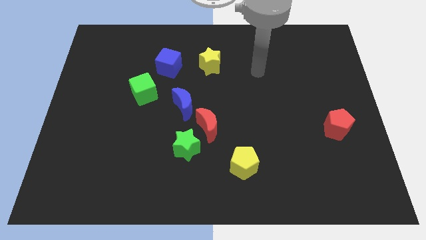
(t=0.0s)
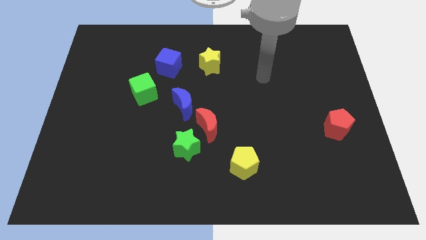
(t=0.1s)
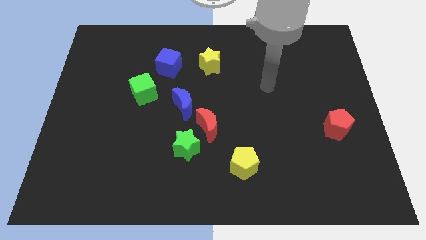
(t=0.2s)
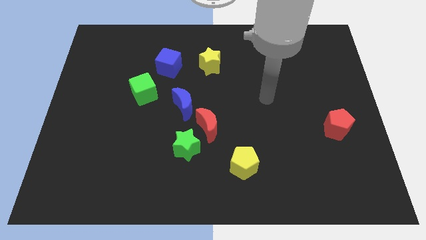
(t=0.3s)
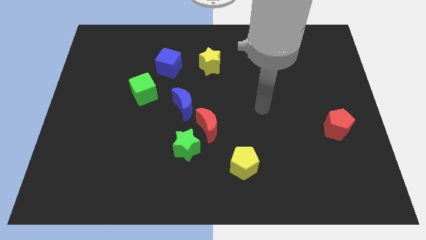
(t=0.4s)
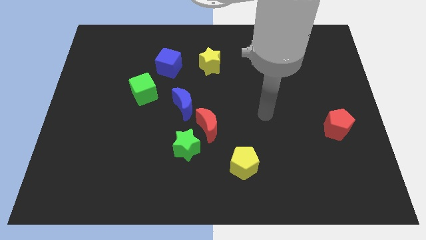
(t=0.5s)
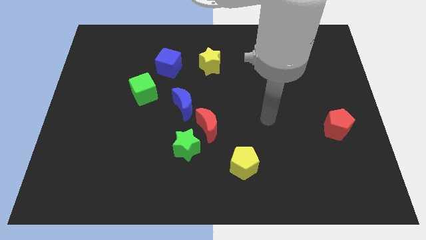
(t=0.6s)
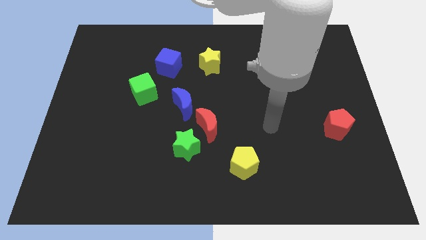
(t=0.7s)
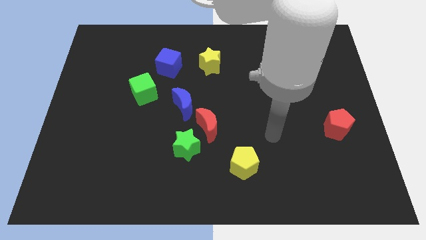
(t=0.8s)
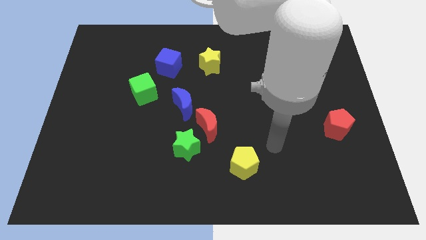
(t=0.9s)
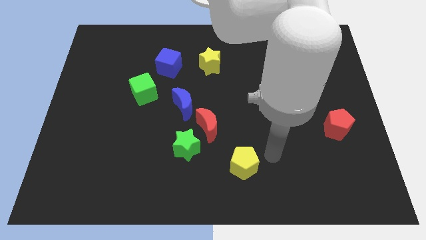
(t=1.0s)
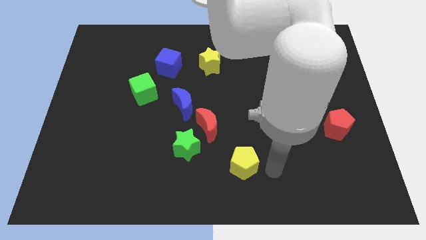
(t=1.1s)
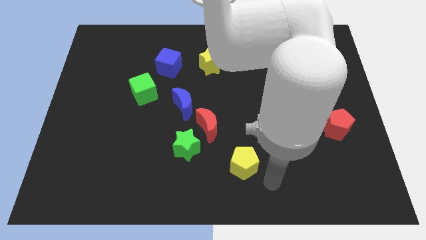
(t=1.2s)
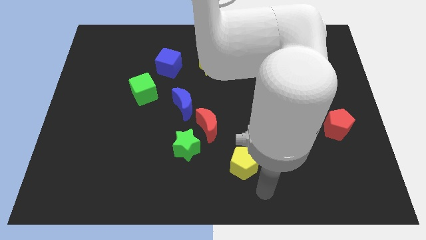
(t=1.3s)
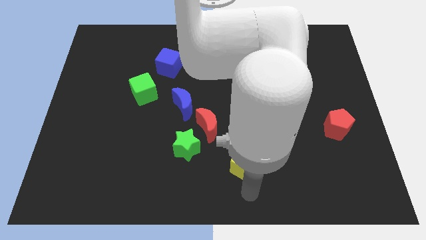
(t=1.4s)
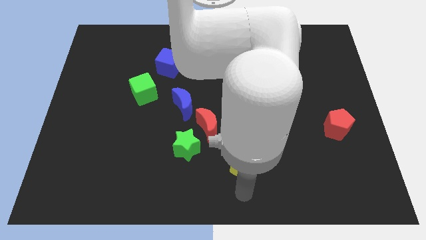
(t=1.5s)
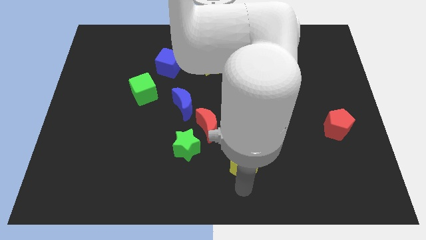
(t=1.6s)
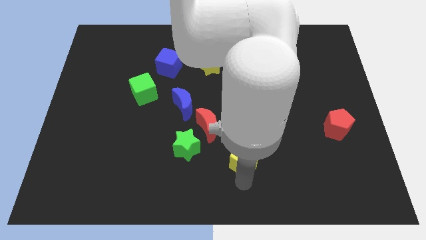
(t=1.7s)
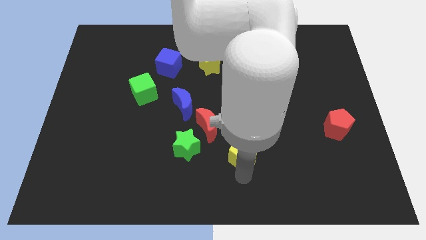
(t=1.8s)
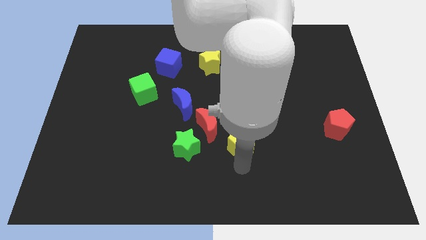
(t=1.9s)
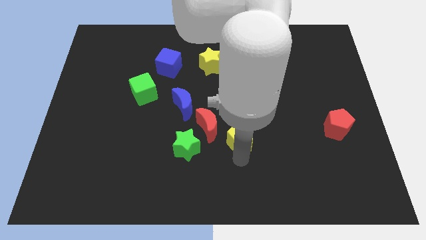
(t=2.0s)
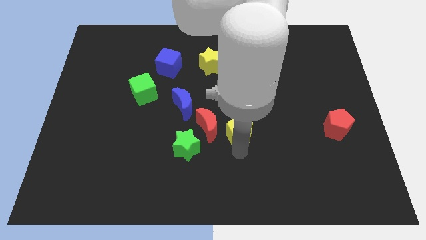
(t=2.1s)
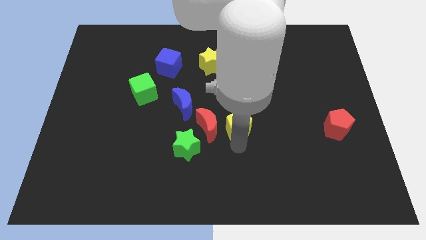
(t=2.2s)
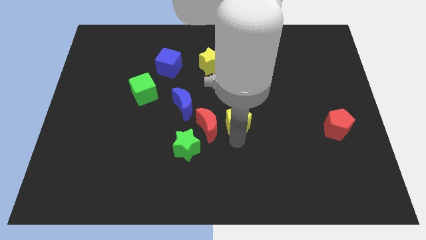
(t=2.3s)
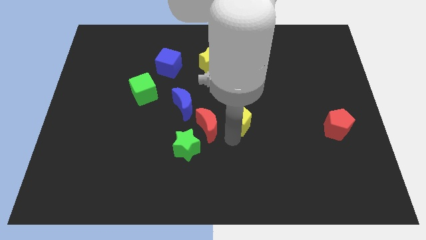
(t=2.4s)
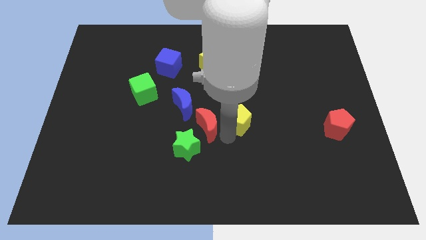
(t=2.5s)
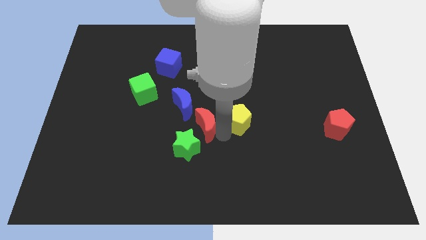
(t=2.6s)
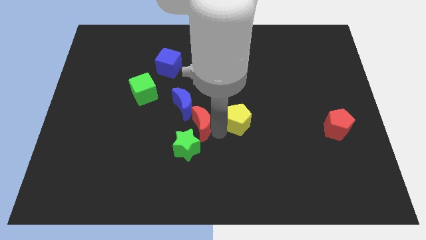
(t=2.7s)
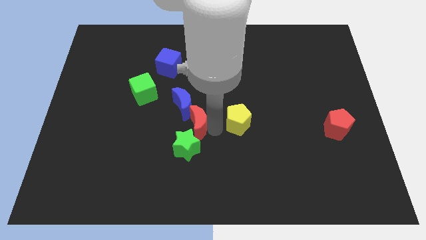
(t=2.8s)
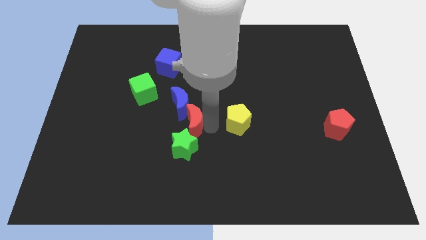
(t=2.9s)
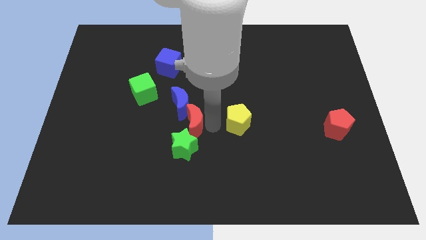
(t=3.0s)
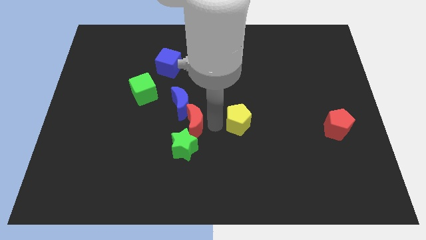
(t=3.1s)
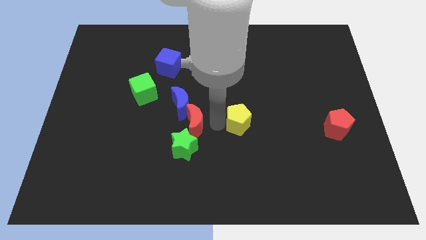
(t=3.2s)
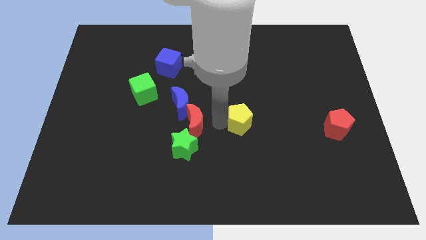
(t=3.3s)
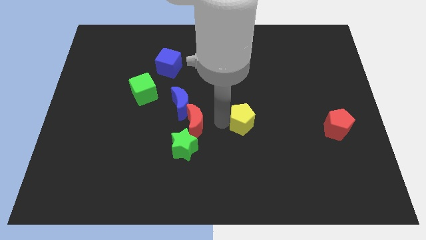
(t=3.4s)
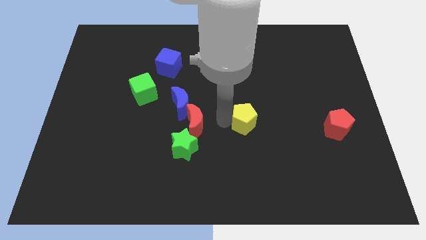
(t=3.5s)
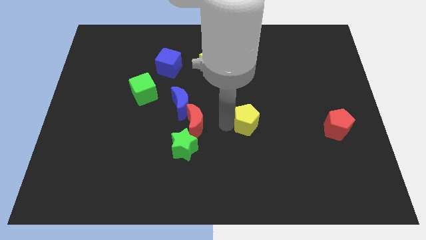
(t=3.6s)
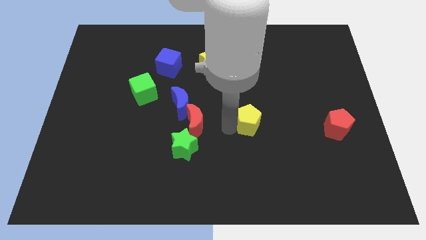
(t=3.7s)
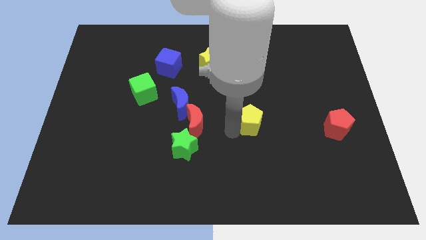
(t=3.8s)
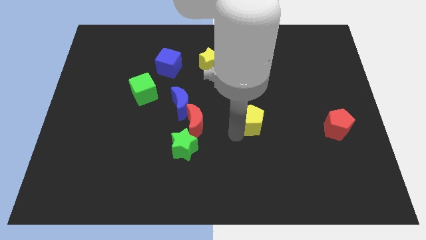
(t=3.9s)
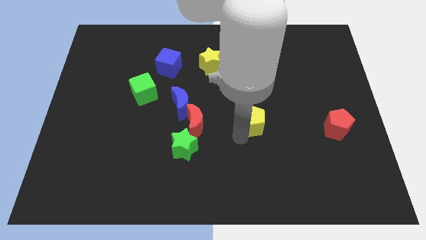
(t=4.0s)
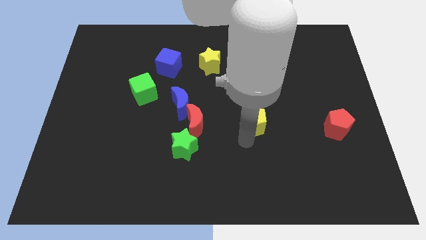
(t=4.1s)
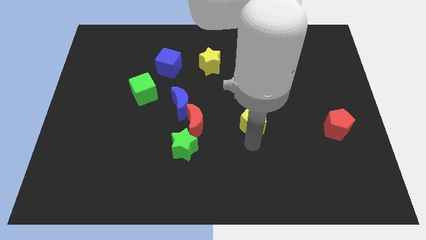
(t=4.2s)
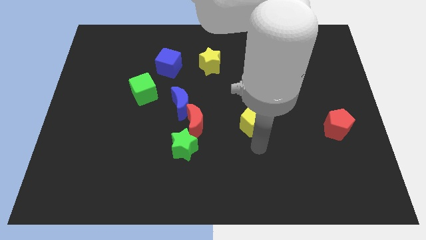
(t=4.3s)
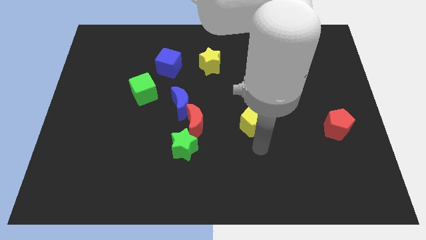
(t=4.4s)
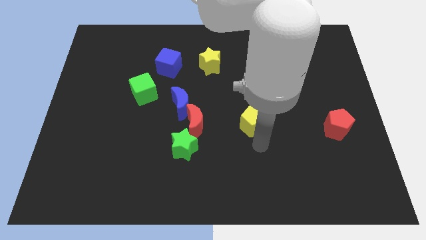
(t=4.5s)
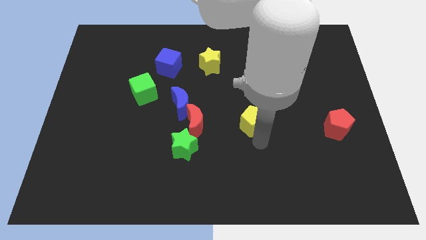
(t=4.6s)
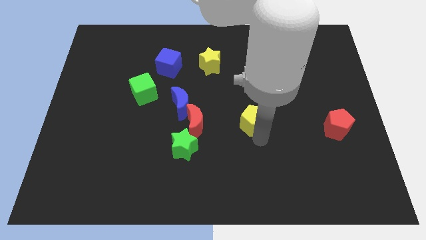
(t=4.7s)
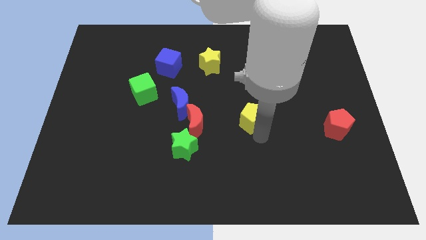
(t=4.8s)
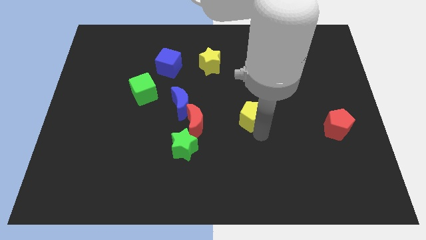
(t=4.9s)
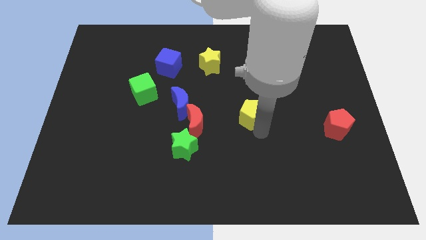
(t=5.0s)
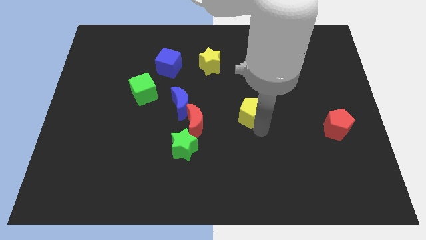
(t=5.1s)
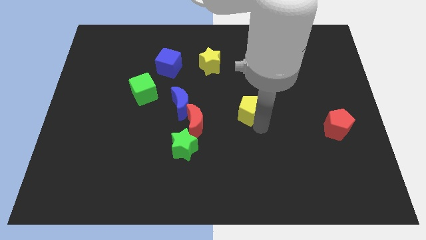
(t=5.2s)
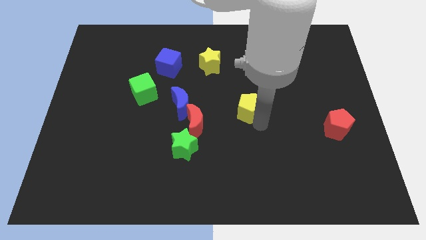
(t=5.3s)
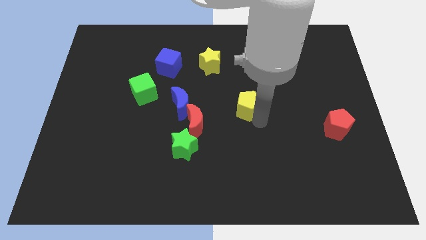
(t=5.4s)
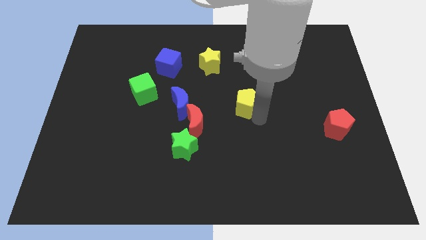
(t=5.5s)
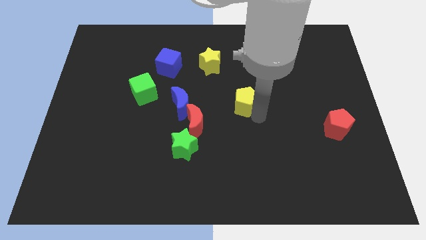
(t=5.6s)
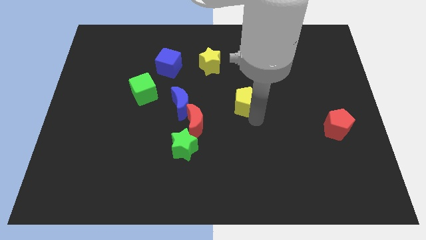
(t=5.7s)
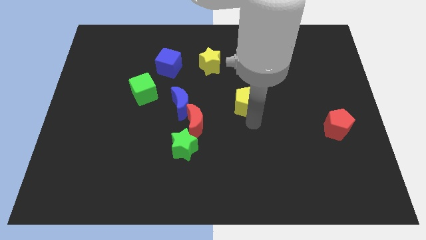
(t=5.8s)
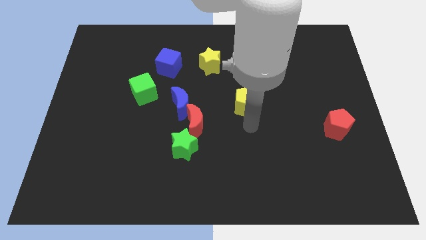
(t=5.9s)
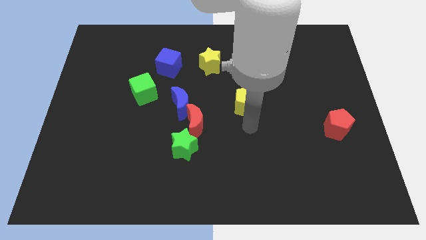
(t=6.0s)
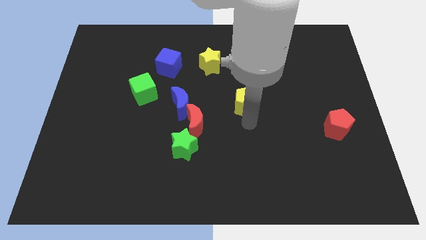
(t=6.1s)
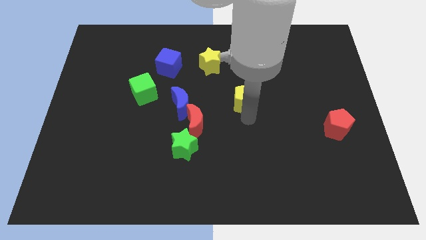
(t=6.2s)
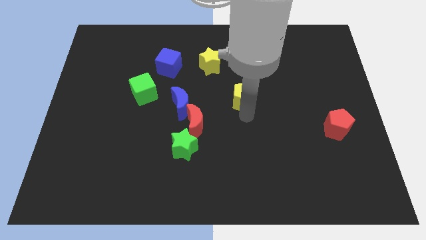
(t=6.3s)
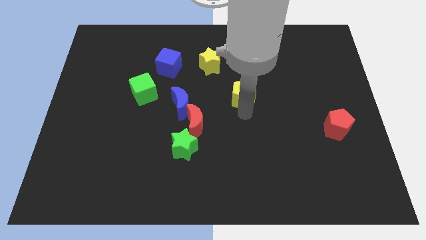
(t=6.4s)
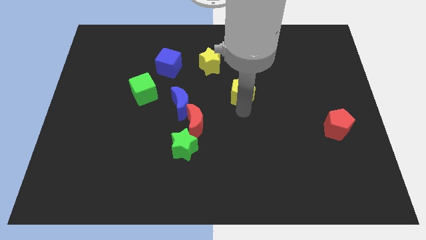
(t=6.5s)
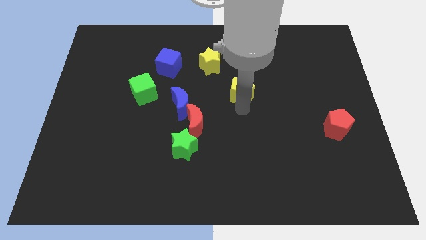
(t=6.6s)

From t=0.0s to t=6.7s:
push the yellow pentagon up

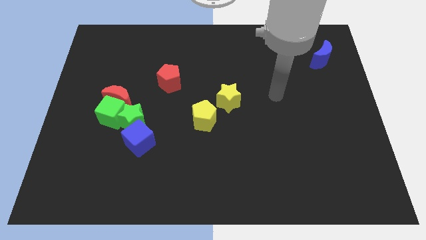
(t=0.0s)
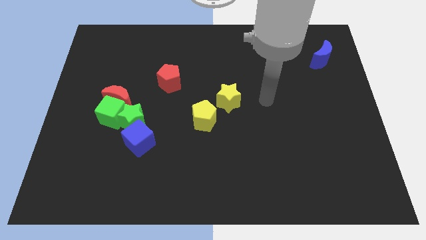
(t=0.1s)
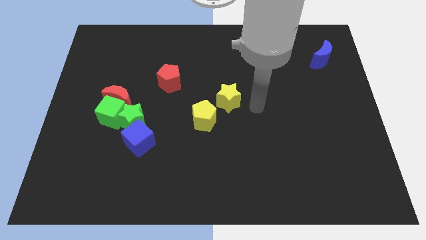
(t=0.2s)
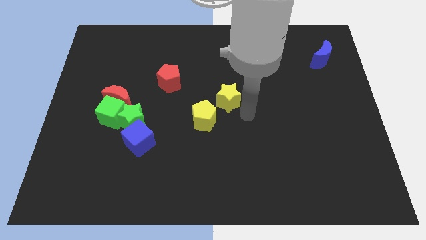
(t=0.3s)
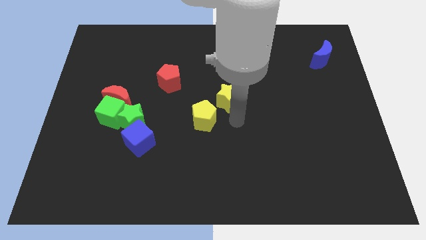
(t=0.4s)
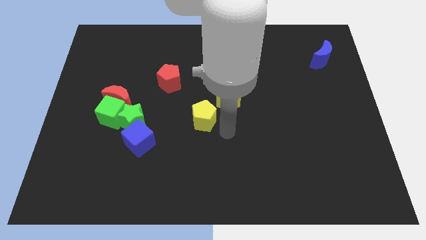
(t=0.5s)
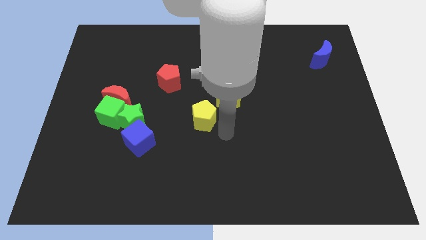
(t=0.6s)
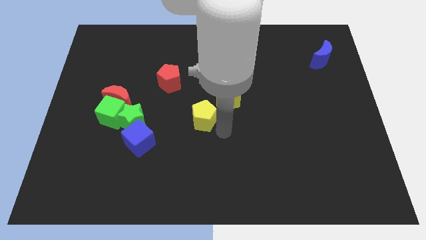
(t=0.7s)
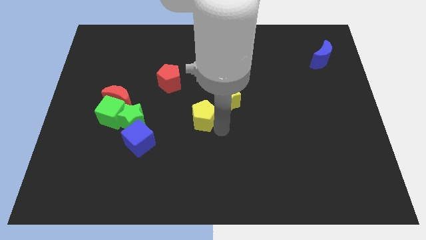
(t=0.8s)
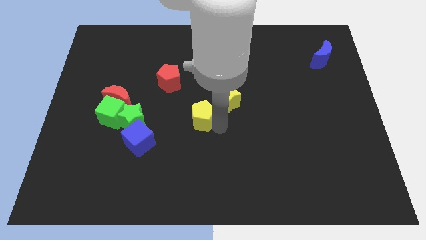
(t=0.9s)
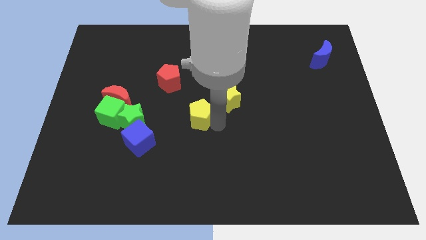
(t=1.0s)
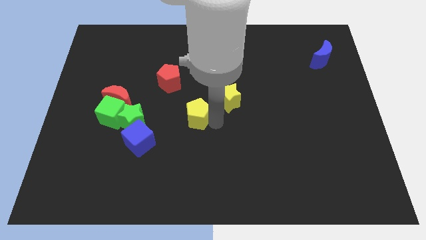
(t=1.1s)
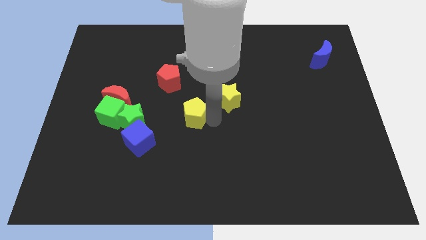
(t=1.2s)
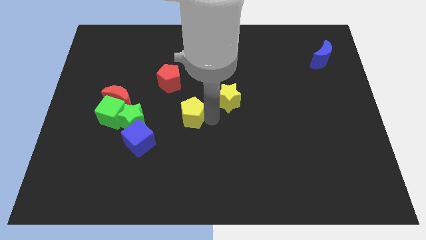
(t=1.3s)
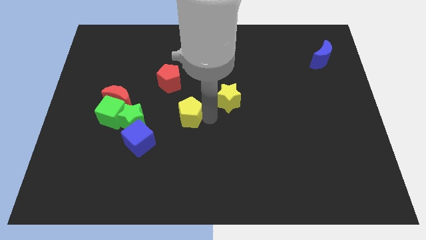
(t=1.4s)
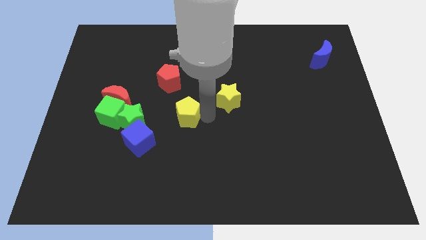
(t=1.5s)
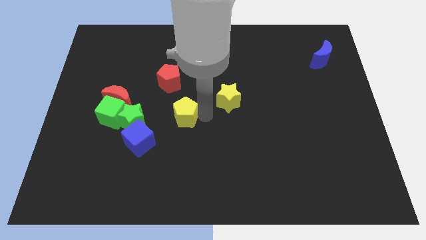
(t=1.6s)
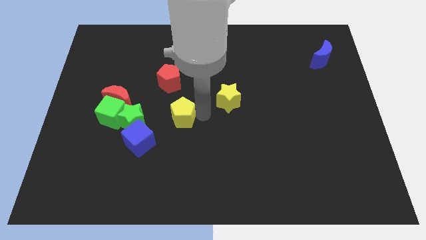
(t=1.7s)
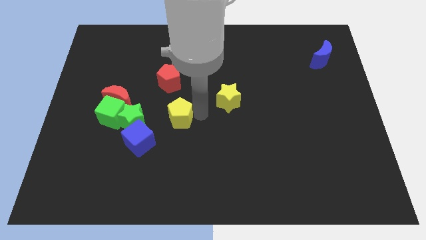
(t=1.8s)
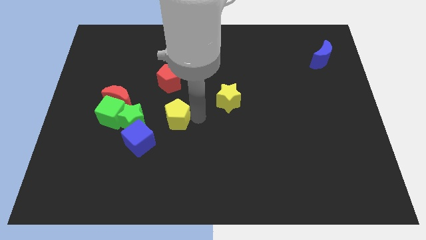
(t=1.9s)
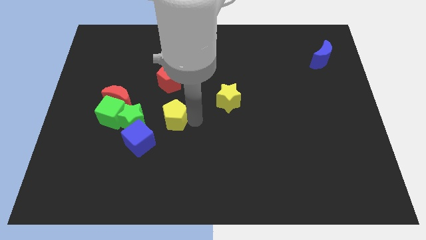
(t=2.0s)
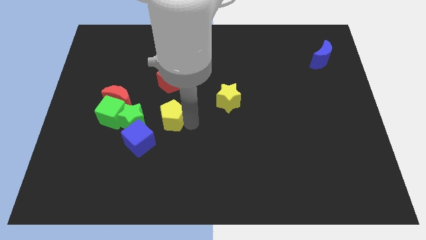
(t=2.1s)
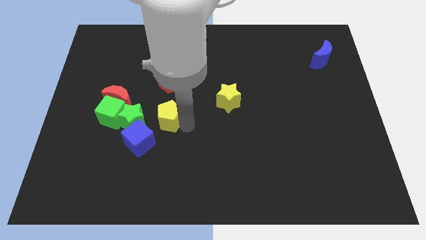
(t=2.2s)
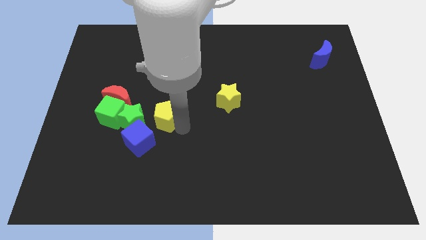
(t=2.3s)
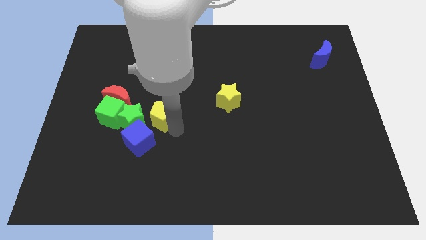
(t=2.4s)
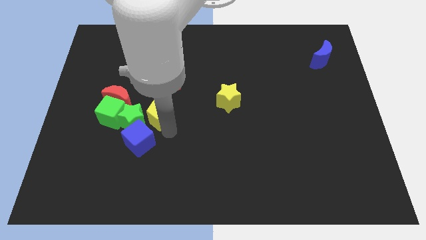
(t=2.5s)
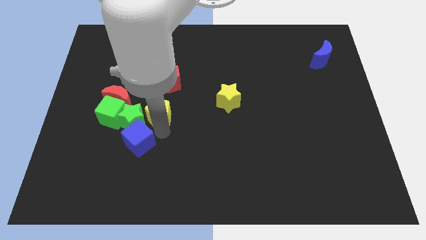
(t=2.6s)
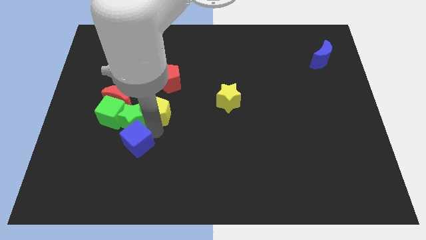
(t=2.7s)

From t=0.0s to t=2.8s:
slide the yellow pentagon slightly diagonally up and to the left
